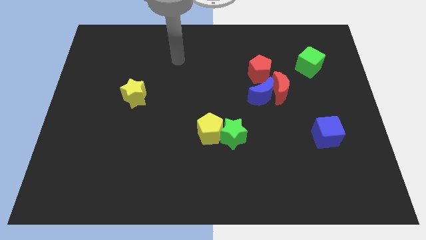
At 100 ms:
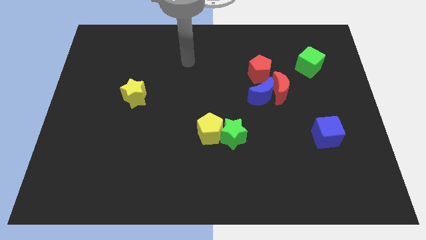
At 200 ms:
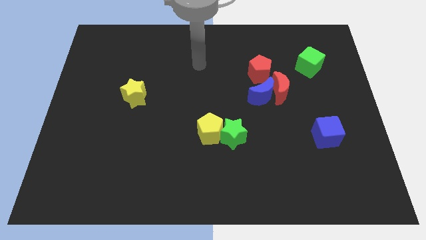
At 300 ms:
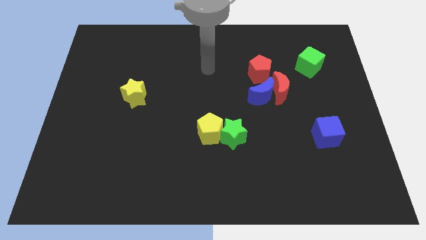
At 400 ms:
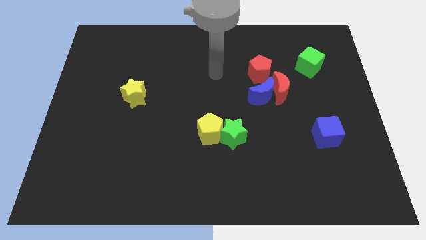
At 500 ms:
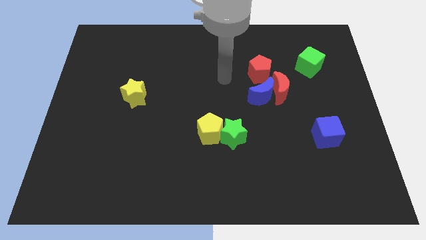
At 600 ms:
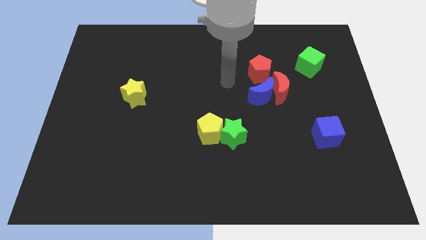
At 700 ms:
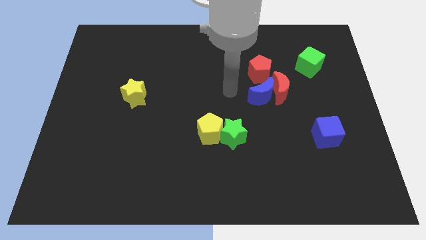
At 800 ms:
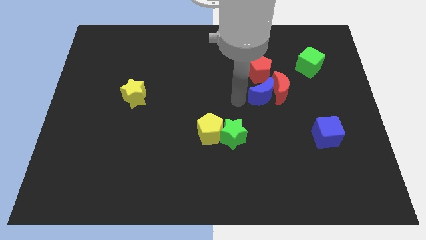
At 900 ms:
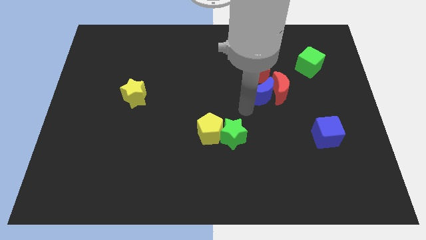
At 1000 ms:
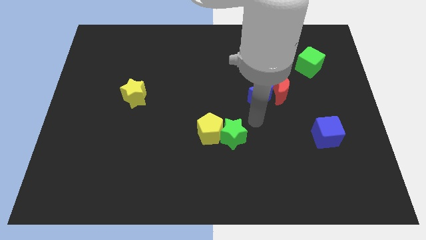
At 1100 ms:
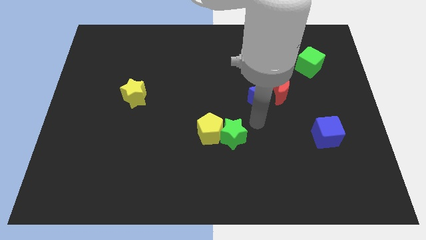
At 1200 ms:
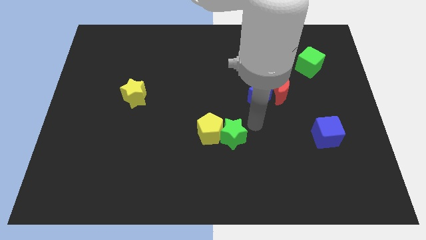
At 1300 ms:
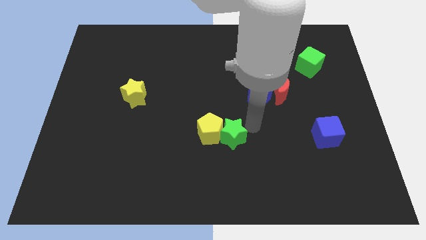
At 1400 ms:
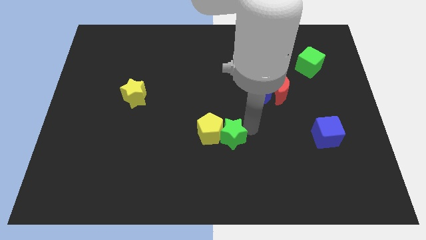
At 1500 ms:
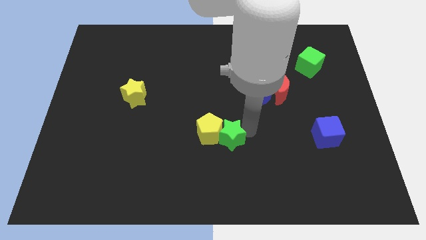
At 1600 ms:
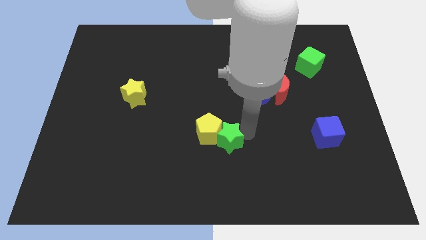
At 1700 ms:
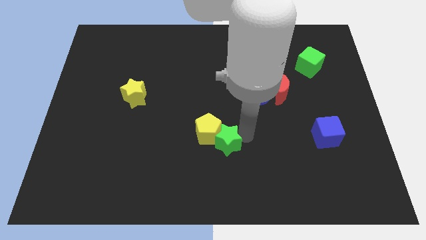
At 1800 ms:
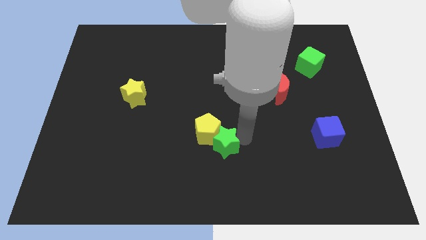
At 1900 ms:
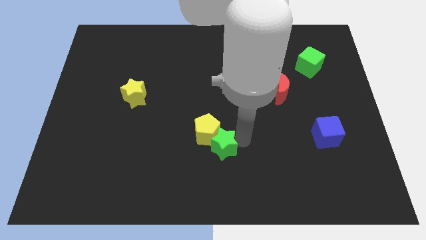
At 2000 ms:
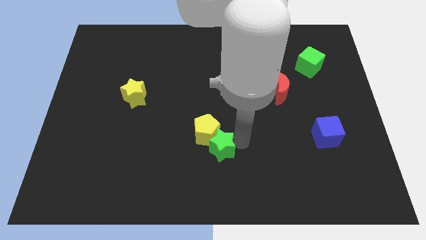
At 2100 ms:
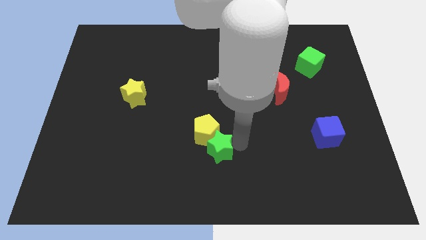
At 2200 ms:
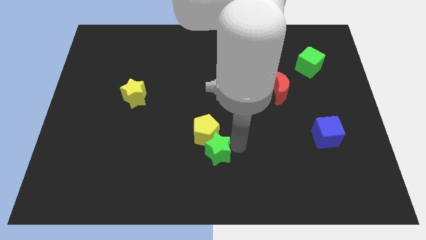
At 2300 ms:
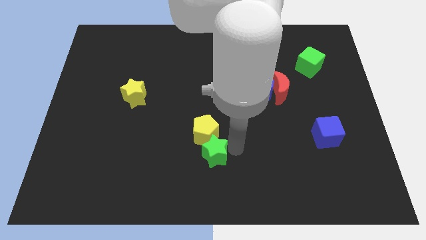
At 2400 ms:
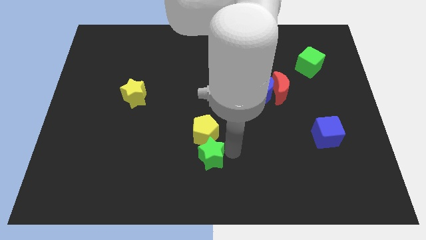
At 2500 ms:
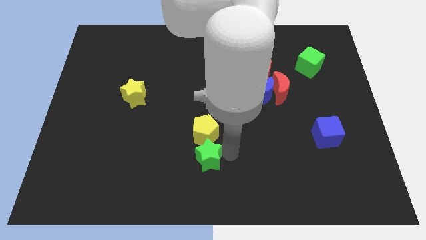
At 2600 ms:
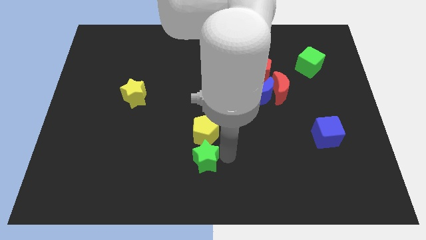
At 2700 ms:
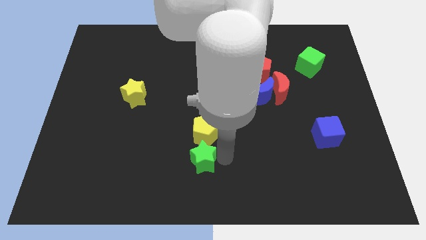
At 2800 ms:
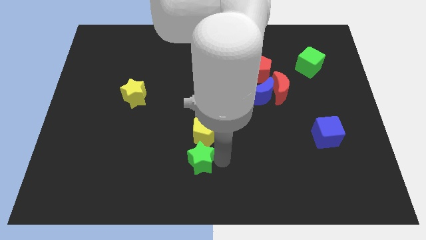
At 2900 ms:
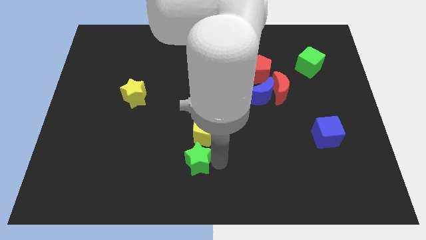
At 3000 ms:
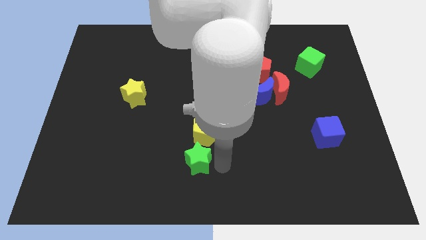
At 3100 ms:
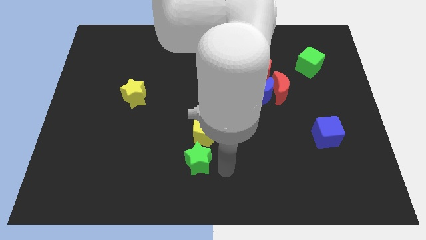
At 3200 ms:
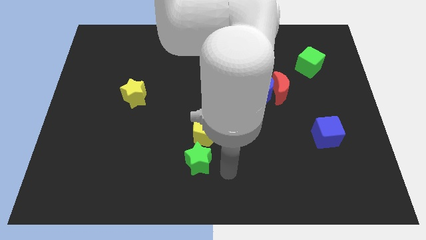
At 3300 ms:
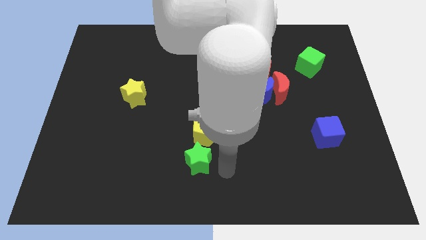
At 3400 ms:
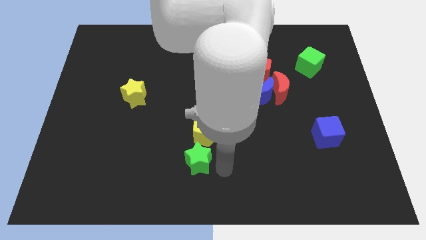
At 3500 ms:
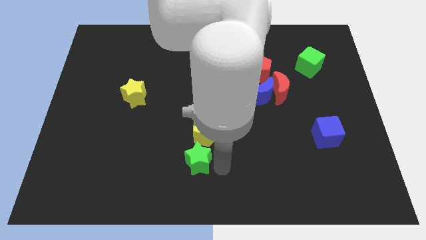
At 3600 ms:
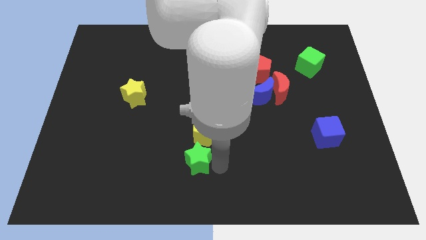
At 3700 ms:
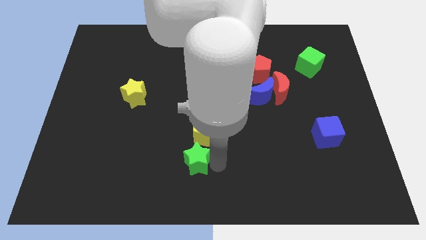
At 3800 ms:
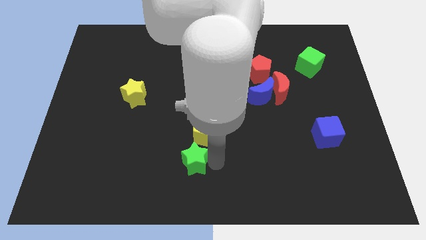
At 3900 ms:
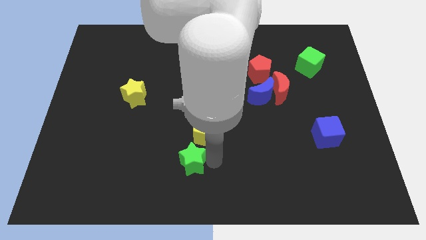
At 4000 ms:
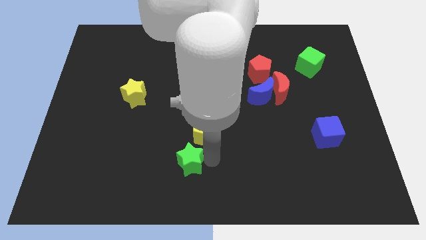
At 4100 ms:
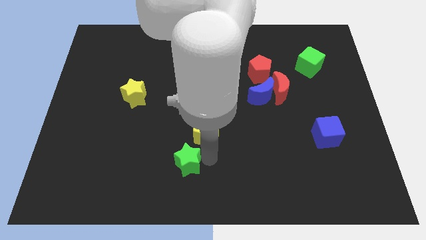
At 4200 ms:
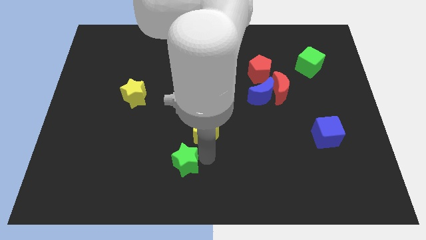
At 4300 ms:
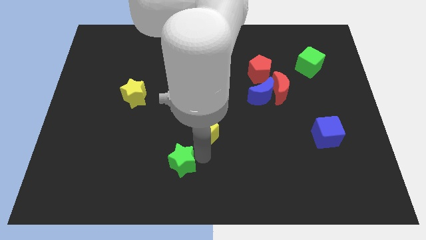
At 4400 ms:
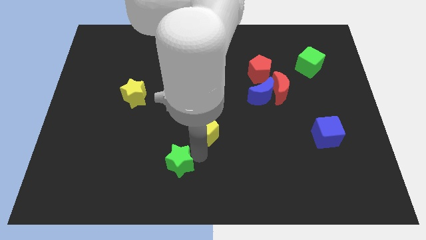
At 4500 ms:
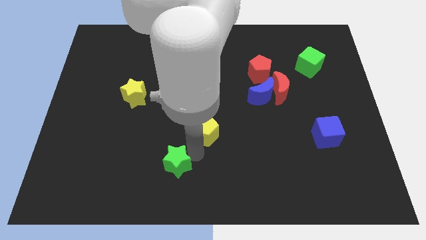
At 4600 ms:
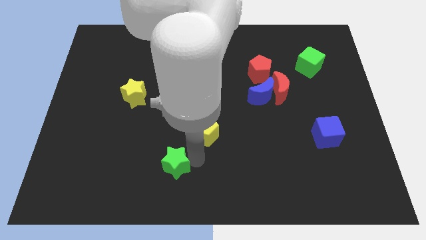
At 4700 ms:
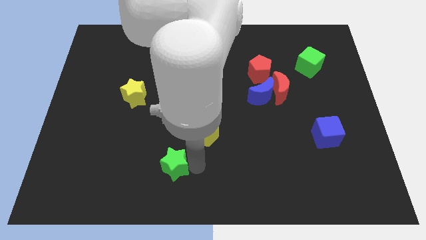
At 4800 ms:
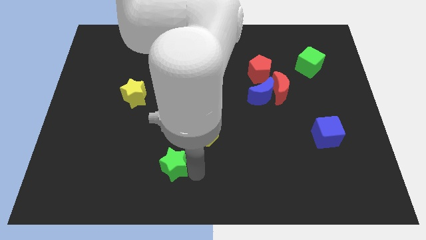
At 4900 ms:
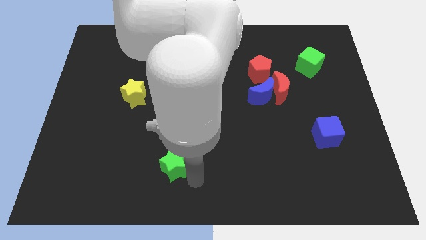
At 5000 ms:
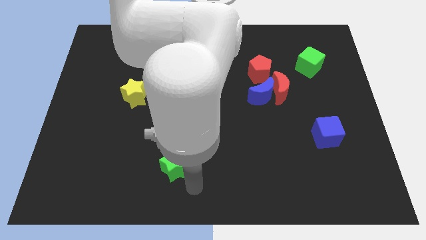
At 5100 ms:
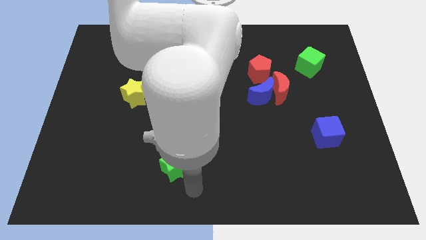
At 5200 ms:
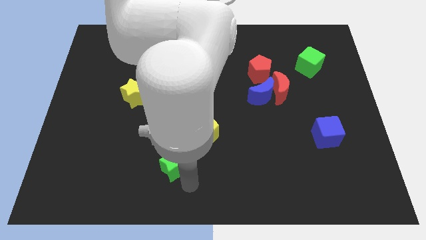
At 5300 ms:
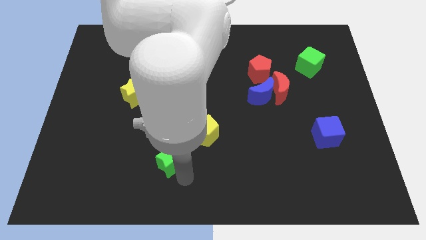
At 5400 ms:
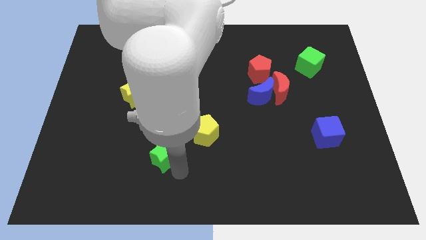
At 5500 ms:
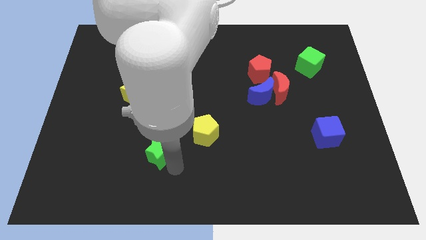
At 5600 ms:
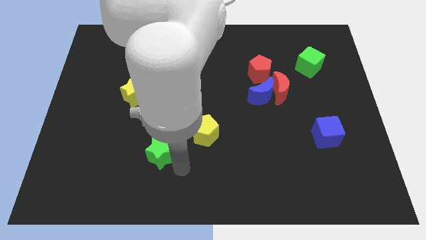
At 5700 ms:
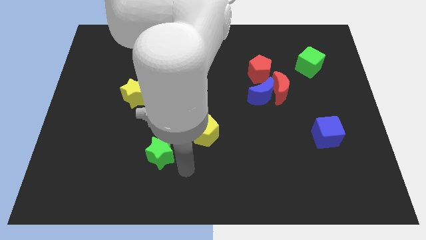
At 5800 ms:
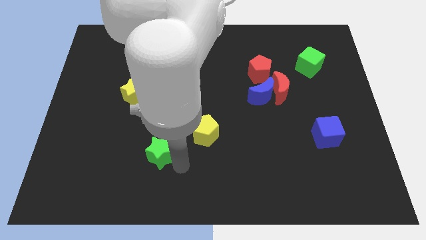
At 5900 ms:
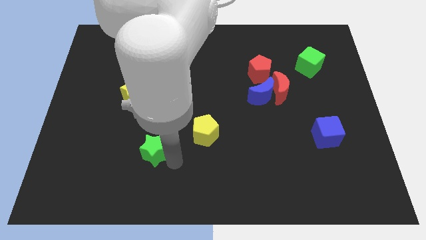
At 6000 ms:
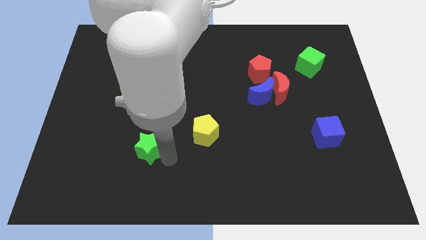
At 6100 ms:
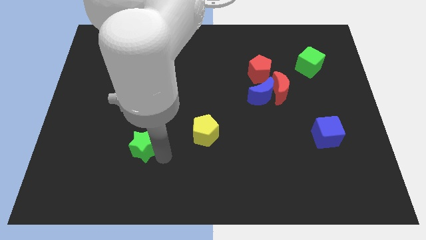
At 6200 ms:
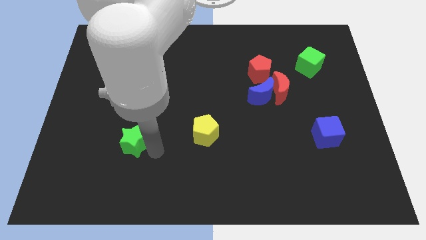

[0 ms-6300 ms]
move the green star left

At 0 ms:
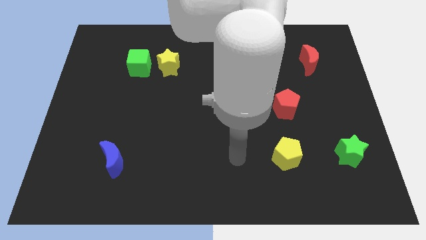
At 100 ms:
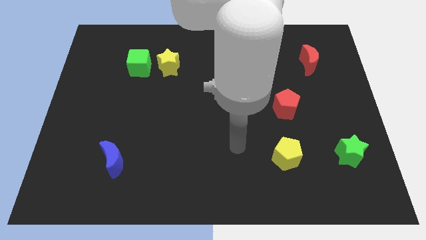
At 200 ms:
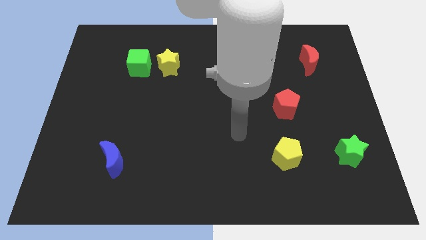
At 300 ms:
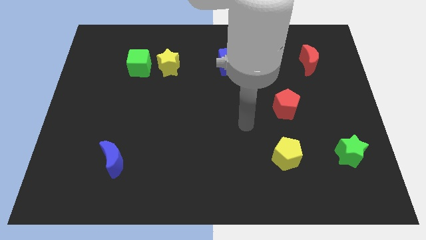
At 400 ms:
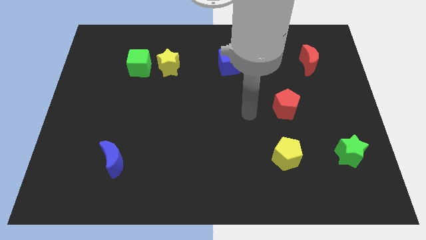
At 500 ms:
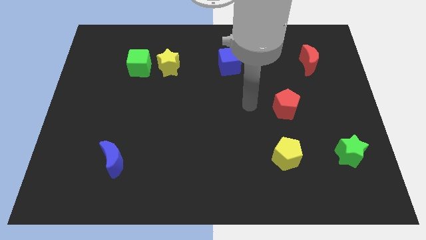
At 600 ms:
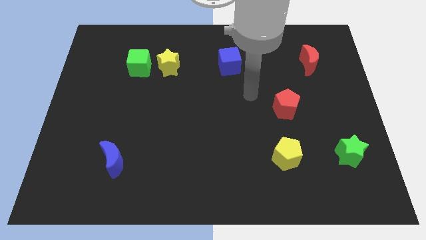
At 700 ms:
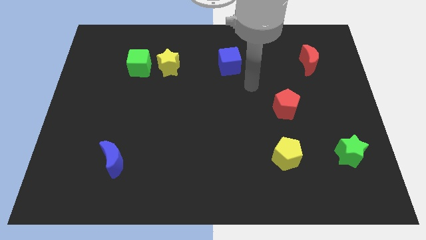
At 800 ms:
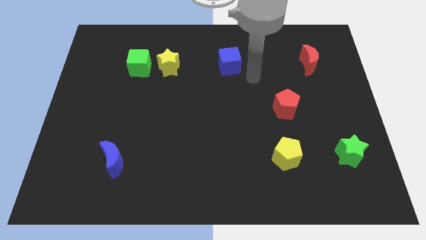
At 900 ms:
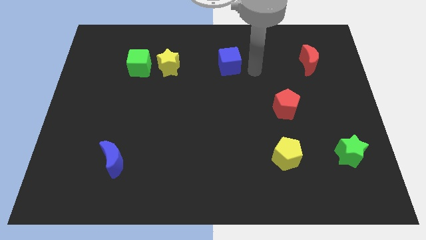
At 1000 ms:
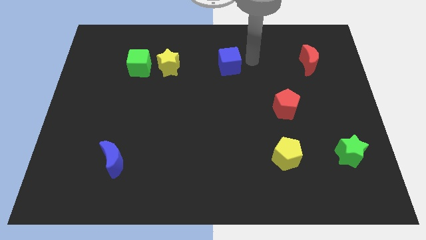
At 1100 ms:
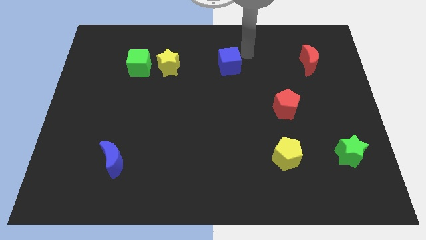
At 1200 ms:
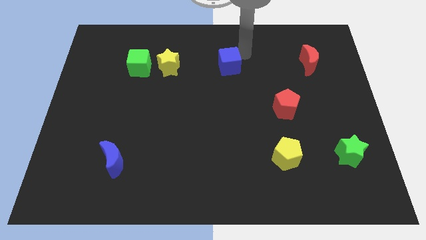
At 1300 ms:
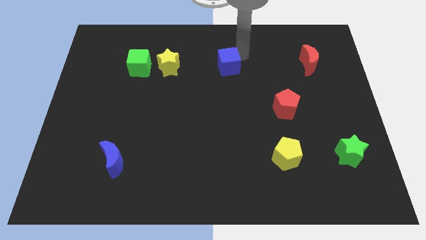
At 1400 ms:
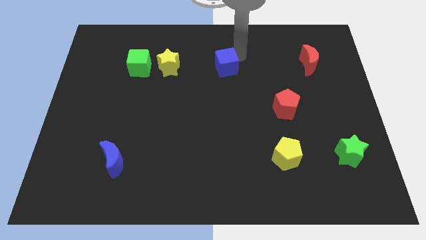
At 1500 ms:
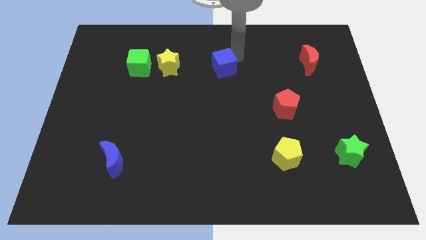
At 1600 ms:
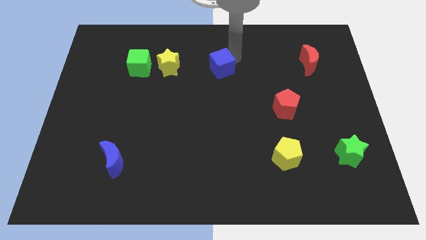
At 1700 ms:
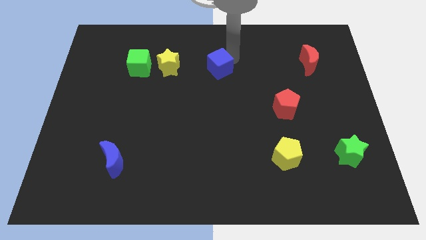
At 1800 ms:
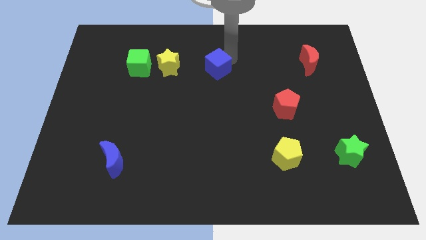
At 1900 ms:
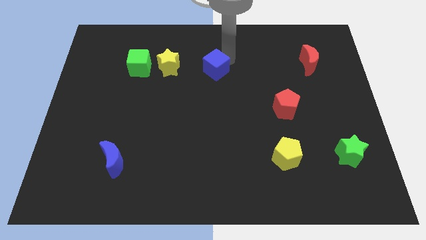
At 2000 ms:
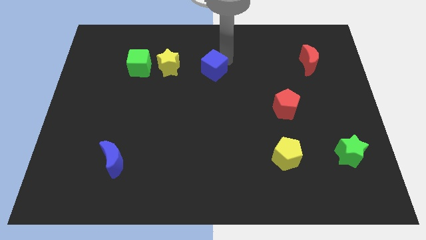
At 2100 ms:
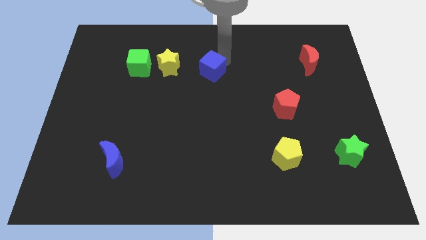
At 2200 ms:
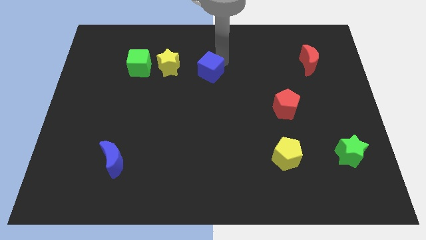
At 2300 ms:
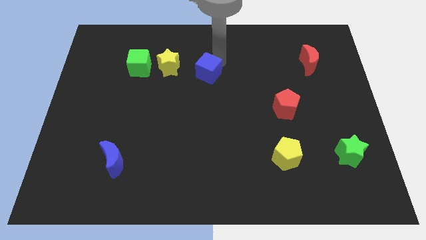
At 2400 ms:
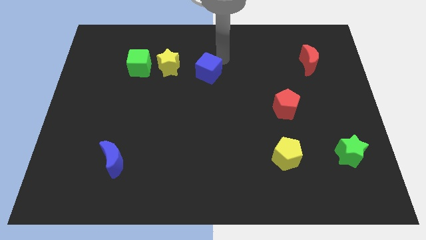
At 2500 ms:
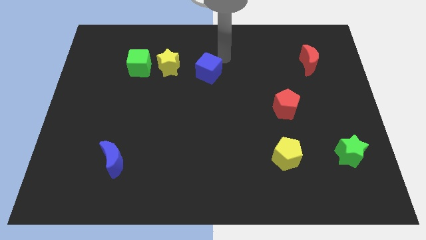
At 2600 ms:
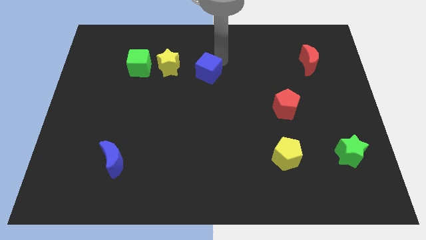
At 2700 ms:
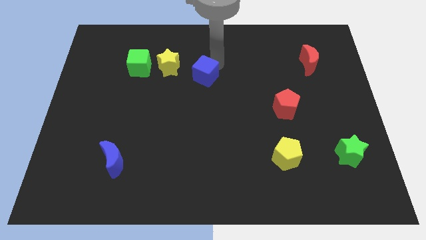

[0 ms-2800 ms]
slide the blue cube downwards and left slightly
